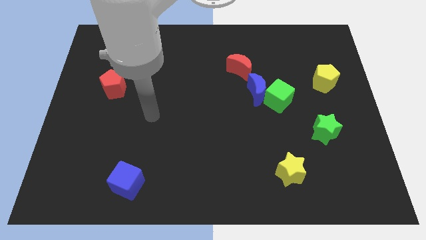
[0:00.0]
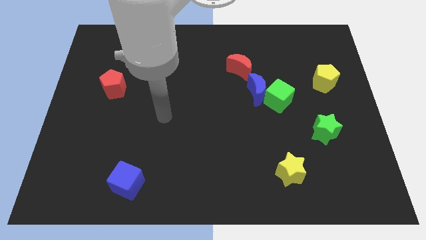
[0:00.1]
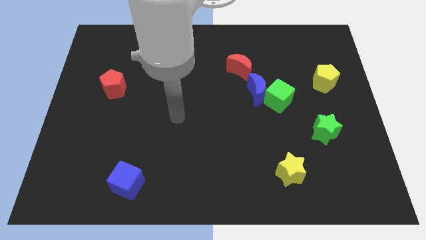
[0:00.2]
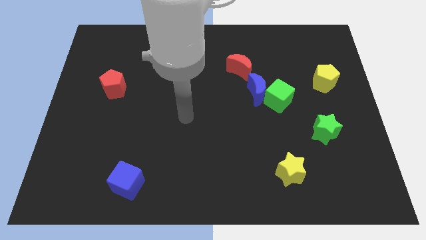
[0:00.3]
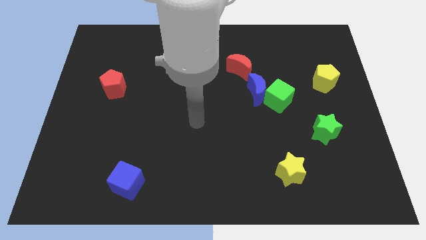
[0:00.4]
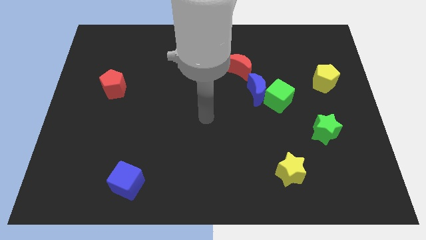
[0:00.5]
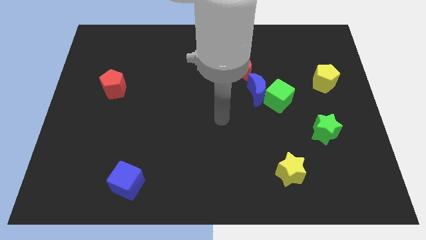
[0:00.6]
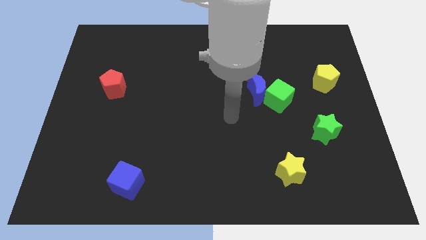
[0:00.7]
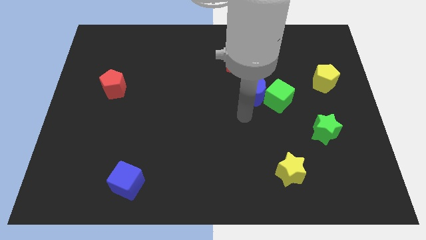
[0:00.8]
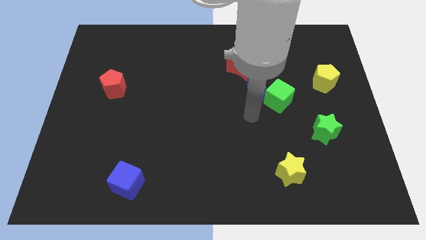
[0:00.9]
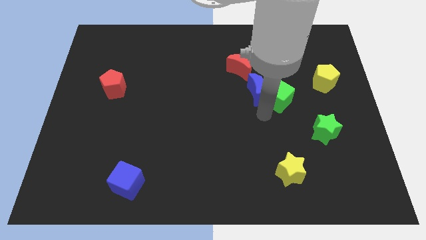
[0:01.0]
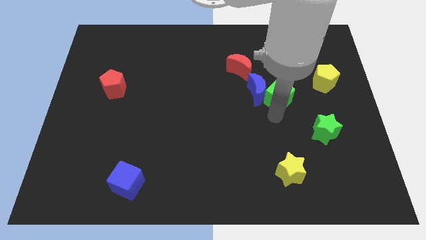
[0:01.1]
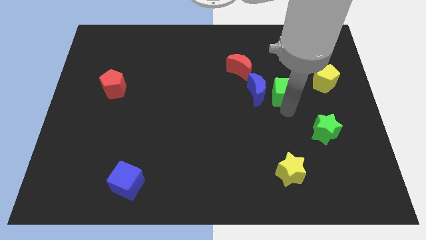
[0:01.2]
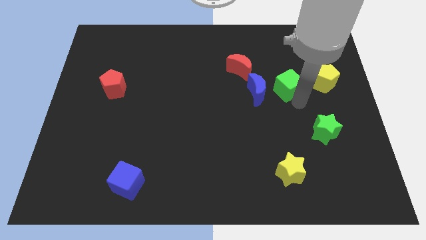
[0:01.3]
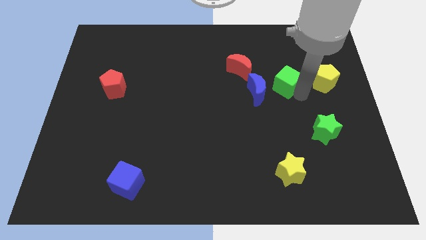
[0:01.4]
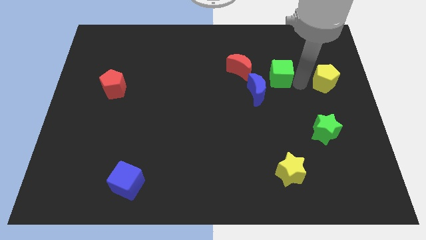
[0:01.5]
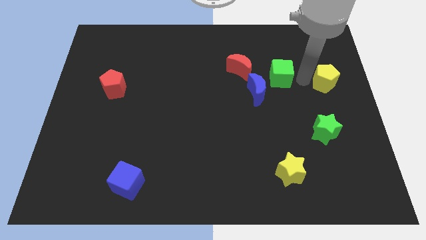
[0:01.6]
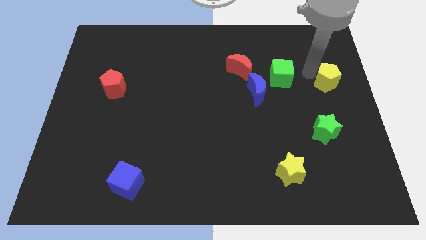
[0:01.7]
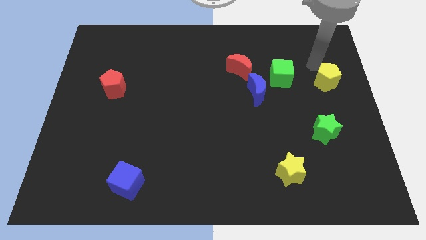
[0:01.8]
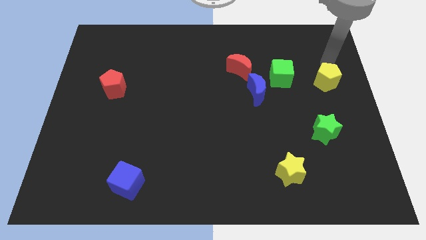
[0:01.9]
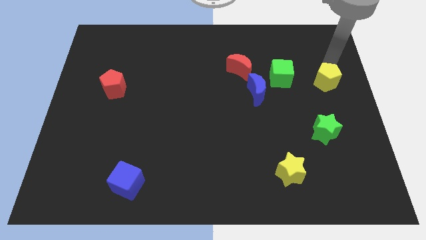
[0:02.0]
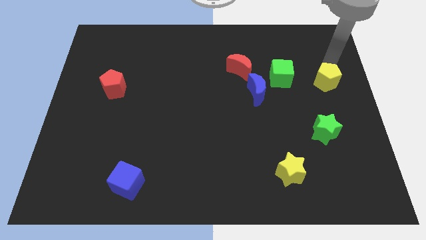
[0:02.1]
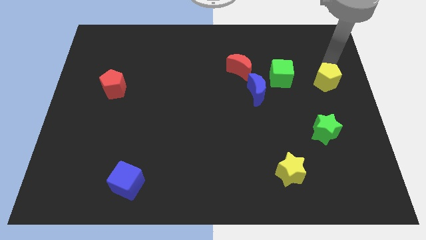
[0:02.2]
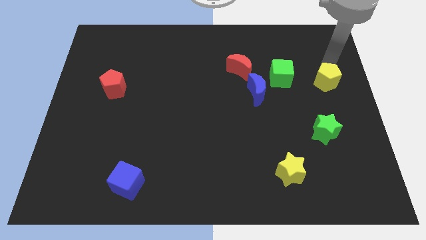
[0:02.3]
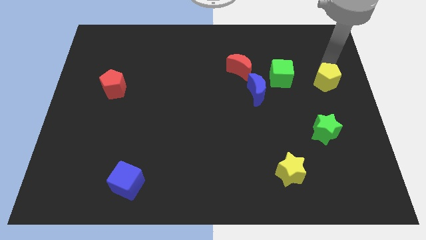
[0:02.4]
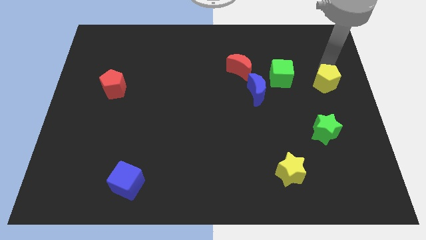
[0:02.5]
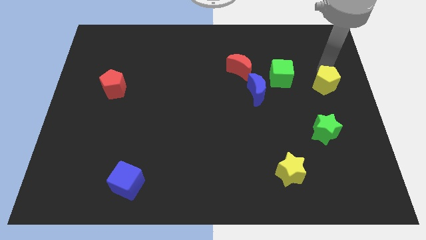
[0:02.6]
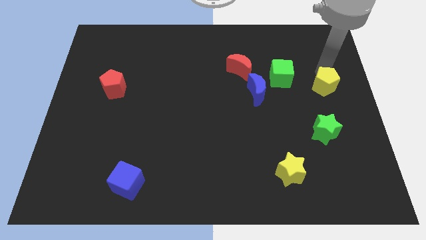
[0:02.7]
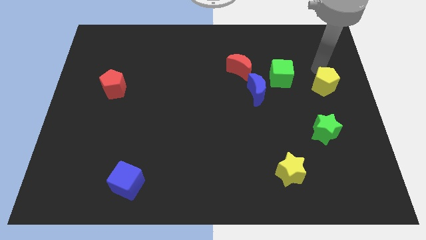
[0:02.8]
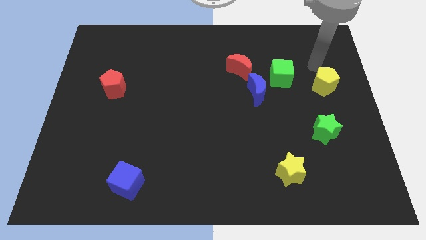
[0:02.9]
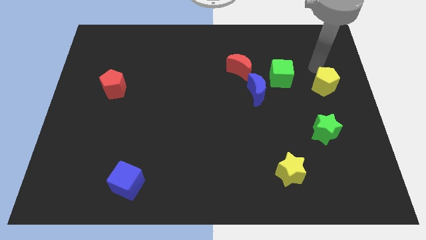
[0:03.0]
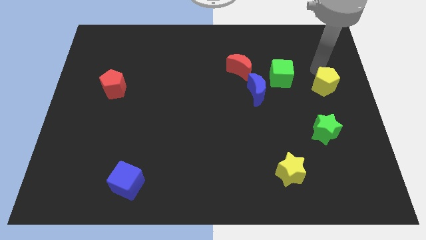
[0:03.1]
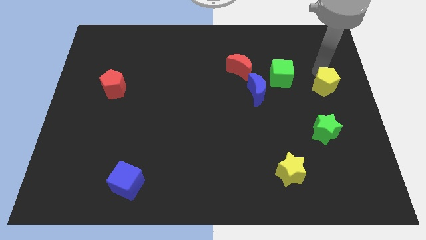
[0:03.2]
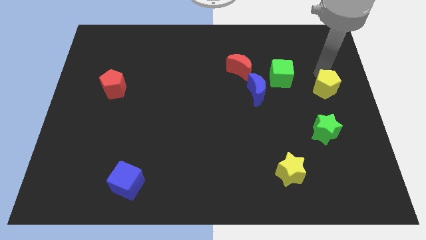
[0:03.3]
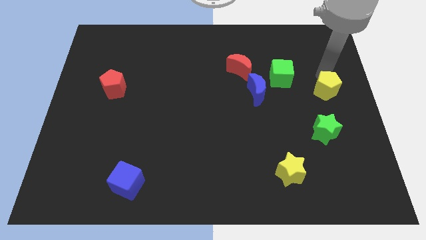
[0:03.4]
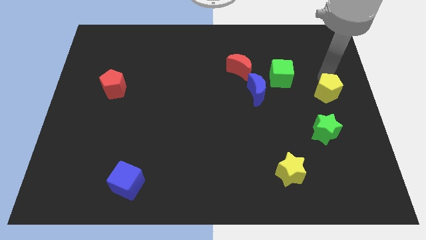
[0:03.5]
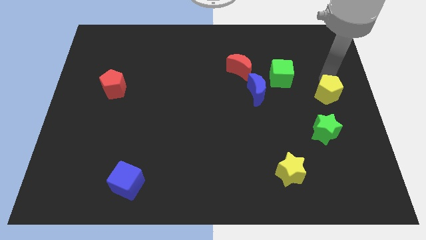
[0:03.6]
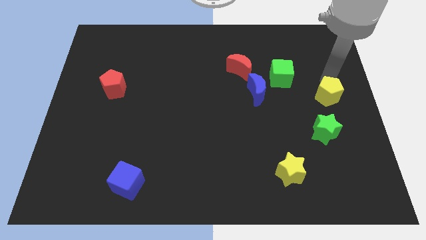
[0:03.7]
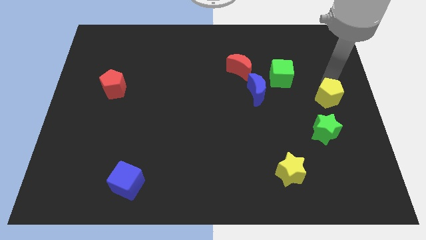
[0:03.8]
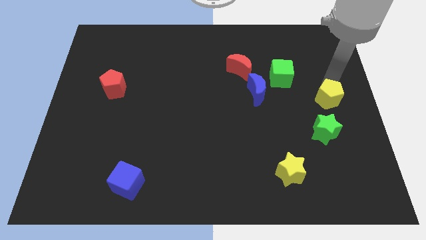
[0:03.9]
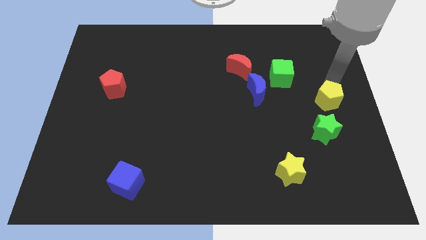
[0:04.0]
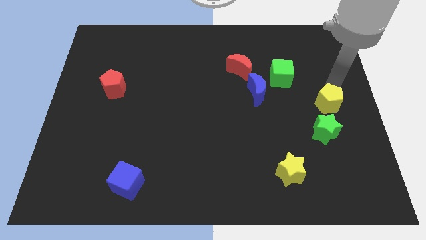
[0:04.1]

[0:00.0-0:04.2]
slightly slide the yellow pentagon downwards

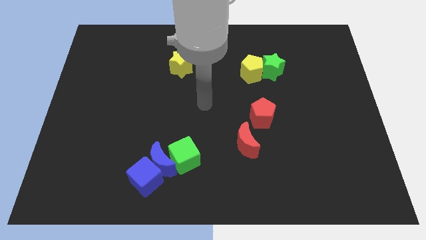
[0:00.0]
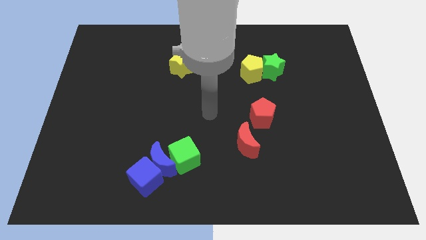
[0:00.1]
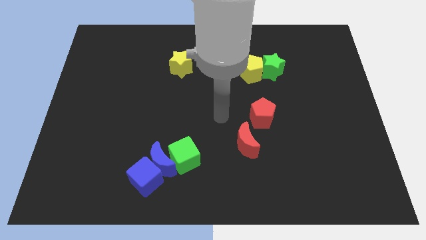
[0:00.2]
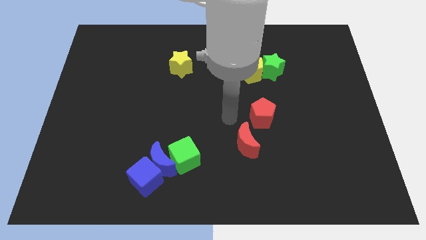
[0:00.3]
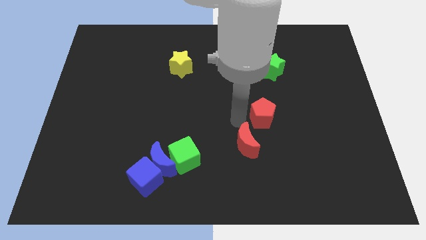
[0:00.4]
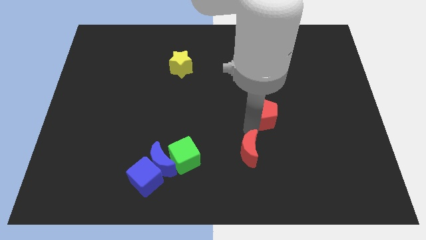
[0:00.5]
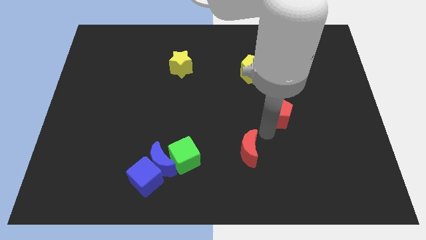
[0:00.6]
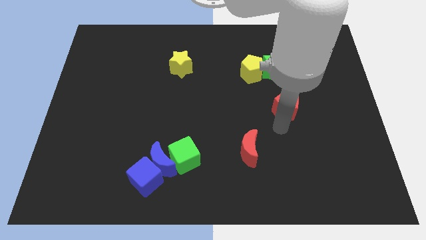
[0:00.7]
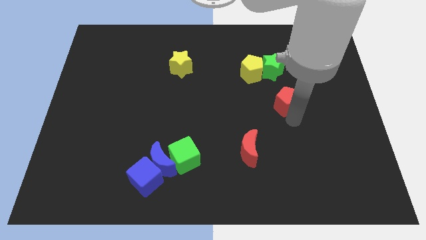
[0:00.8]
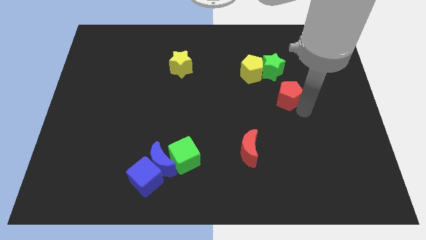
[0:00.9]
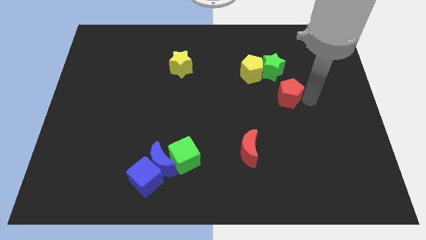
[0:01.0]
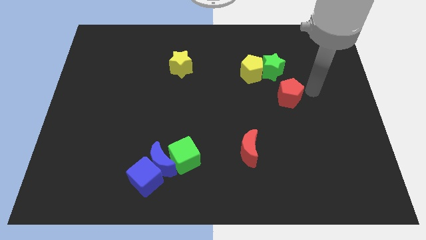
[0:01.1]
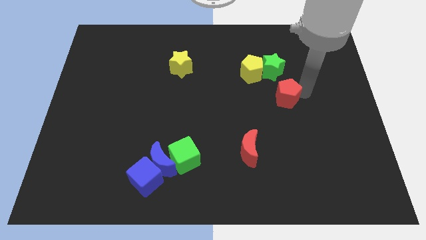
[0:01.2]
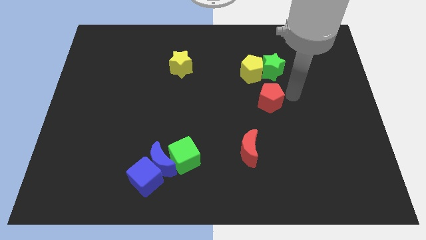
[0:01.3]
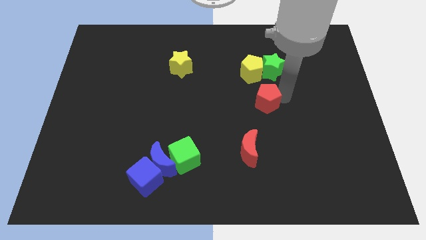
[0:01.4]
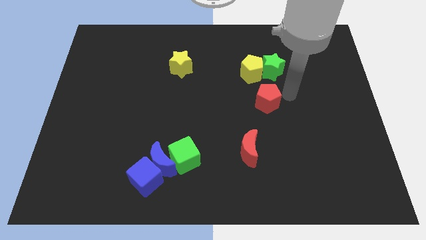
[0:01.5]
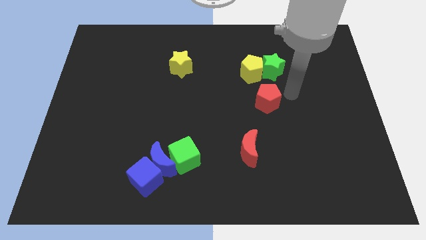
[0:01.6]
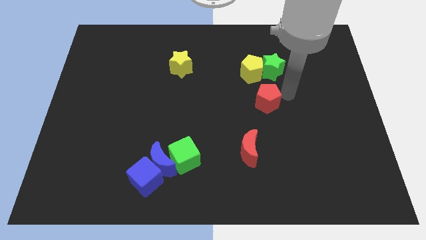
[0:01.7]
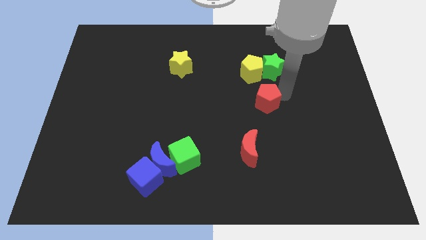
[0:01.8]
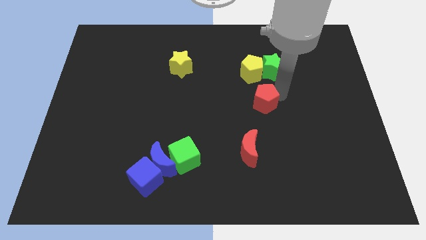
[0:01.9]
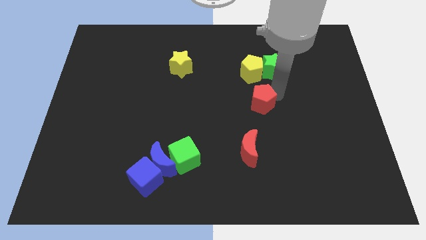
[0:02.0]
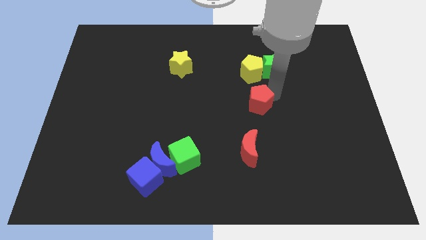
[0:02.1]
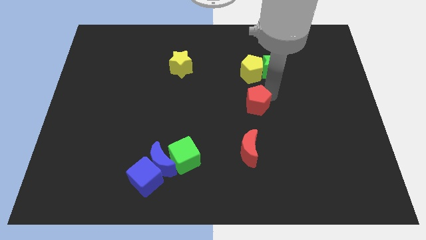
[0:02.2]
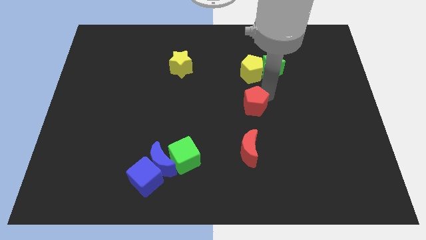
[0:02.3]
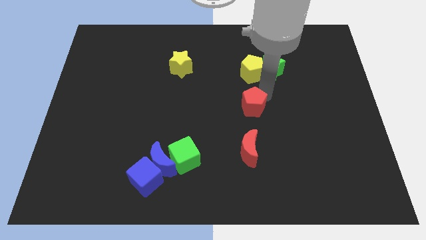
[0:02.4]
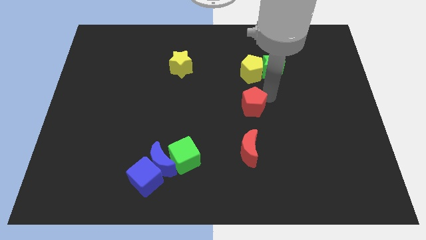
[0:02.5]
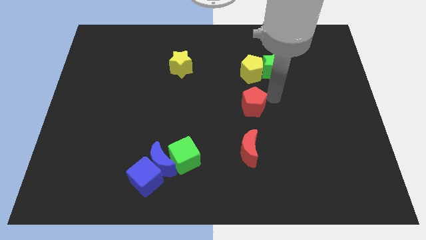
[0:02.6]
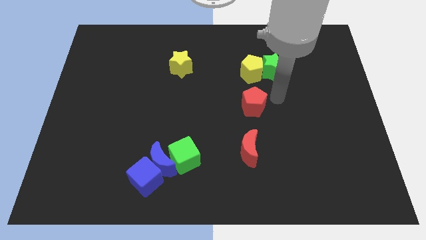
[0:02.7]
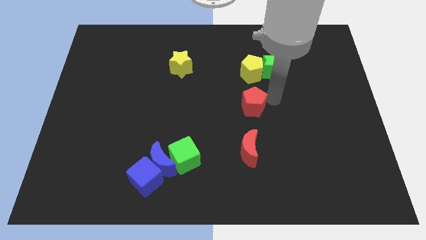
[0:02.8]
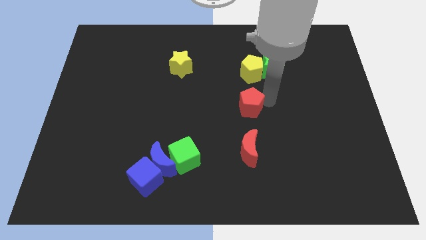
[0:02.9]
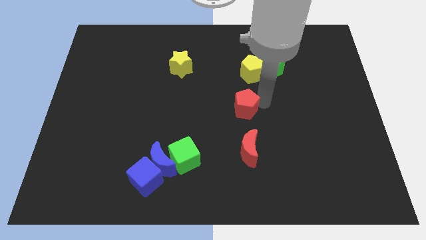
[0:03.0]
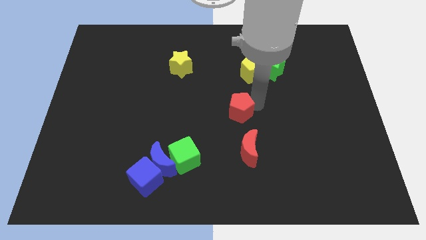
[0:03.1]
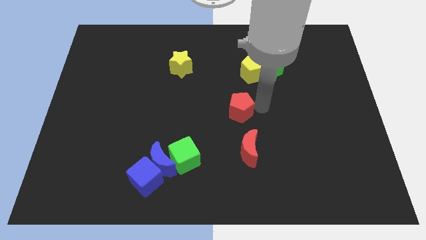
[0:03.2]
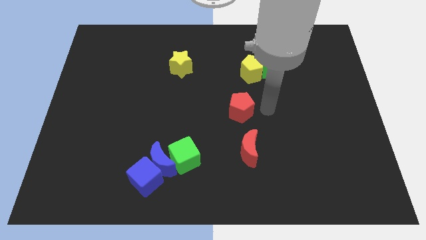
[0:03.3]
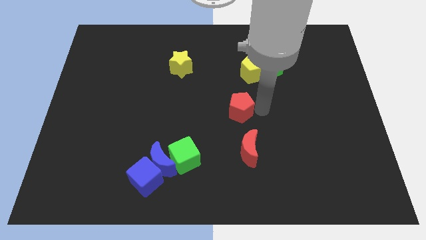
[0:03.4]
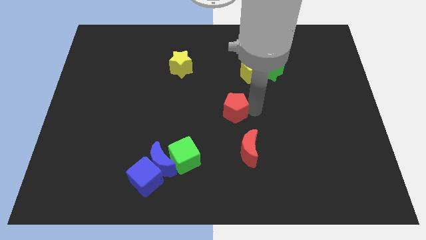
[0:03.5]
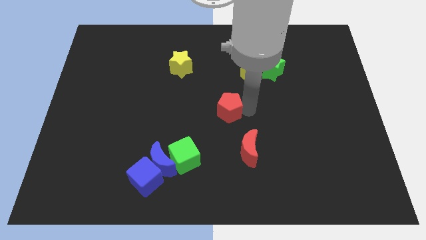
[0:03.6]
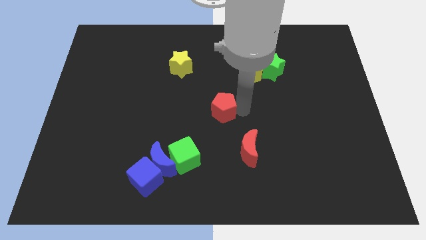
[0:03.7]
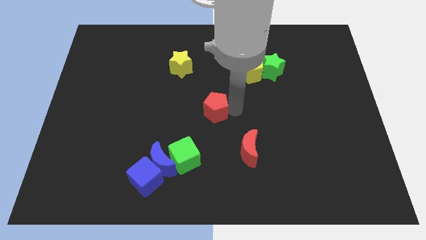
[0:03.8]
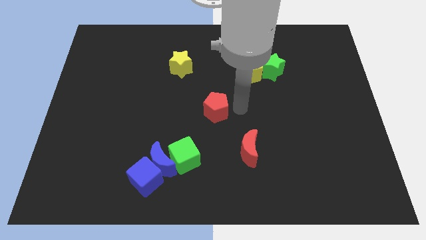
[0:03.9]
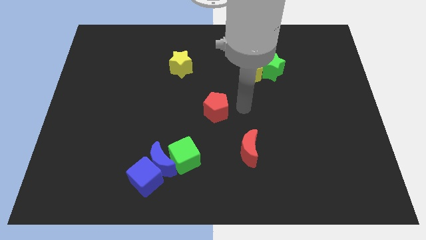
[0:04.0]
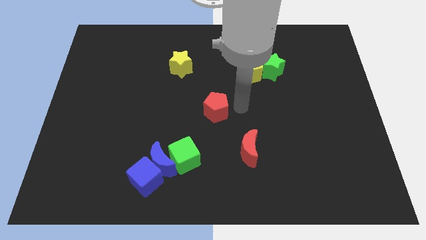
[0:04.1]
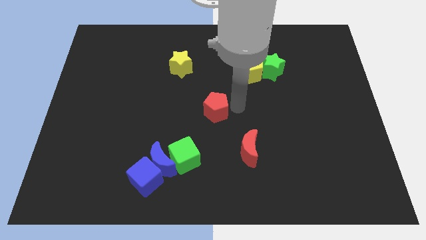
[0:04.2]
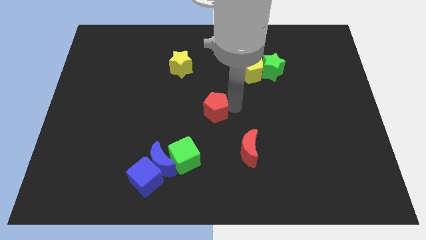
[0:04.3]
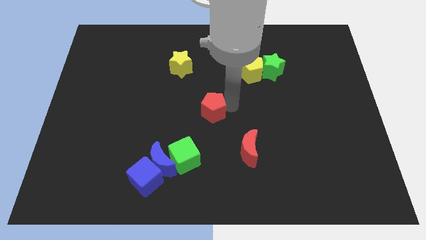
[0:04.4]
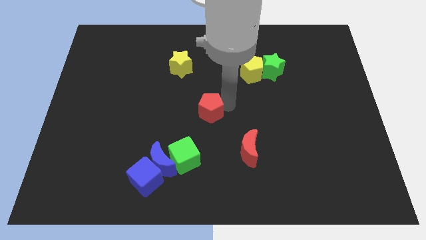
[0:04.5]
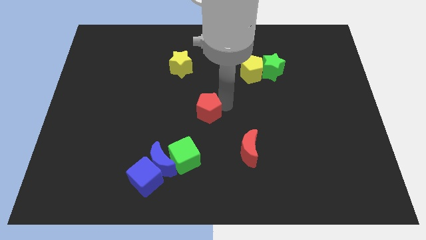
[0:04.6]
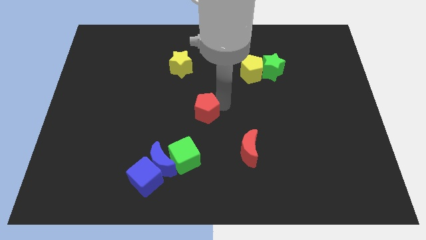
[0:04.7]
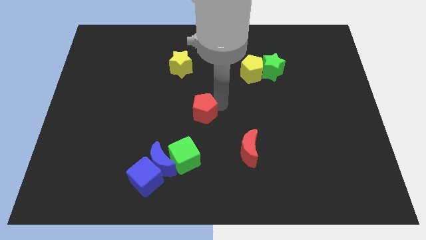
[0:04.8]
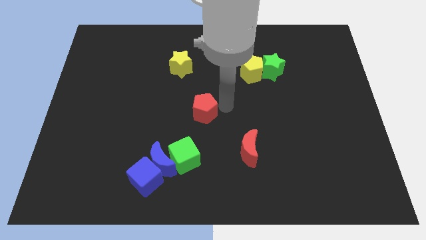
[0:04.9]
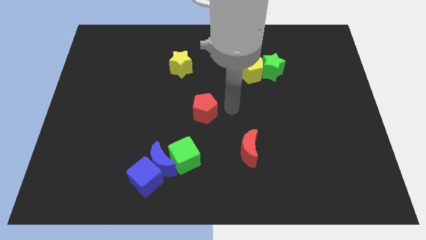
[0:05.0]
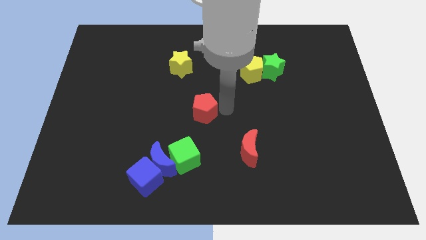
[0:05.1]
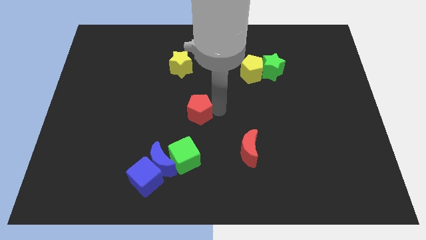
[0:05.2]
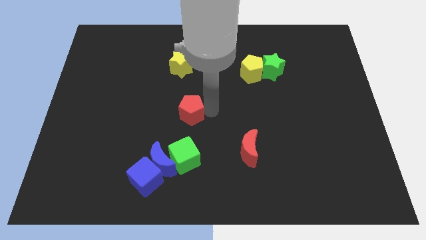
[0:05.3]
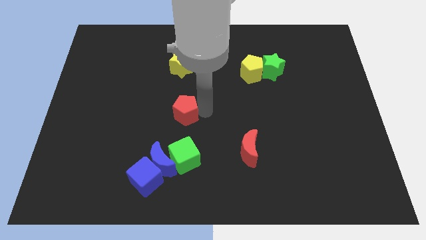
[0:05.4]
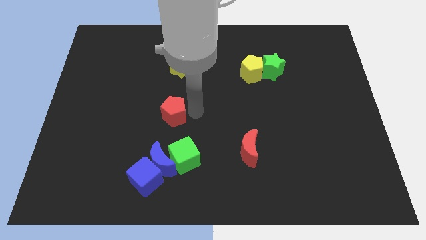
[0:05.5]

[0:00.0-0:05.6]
move the red pentagon left
